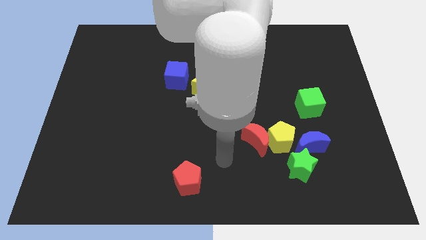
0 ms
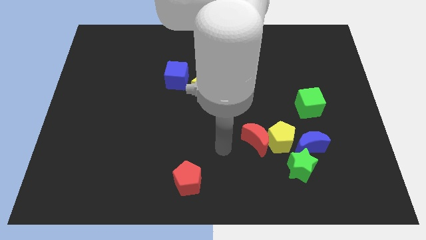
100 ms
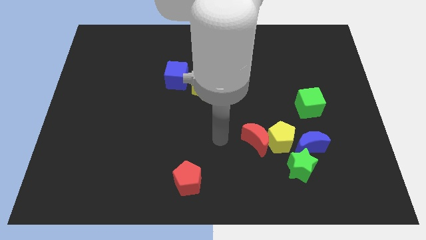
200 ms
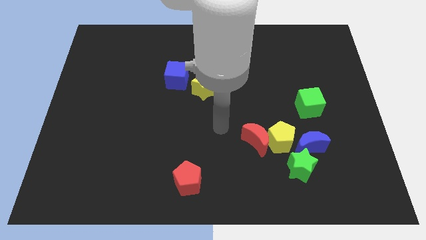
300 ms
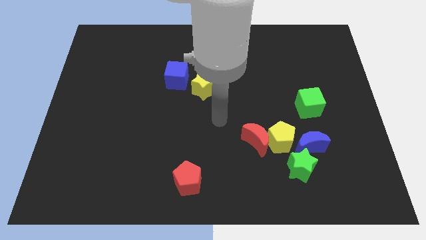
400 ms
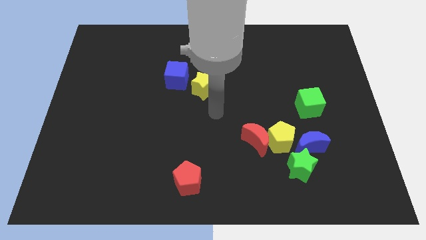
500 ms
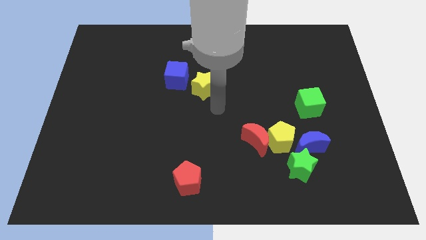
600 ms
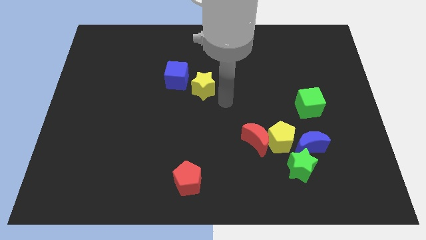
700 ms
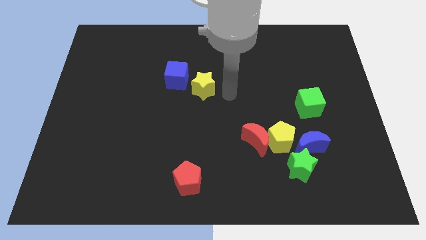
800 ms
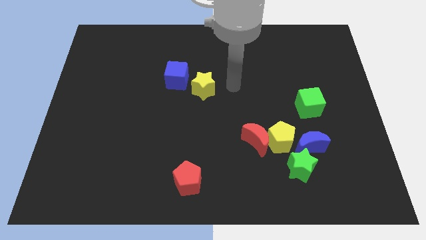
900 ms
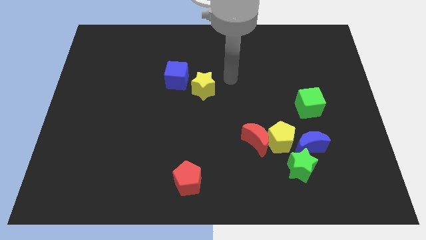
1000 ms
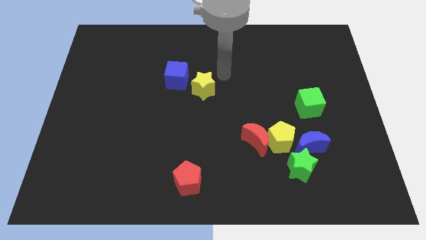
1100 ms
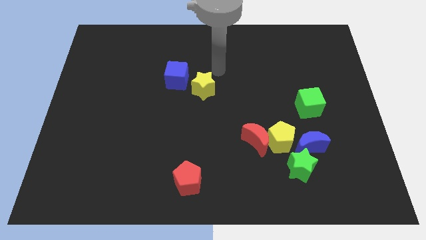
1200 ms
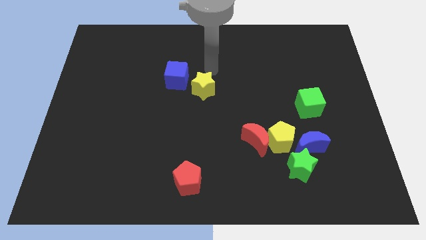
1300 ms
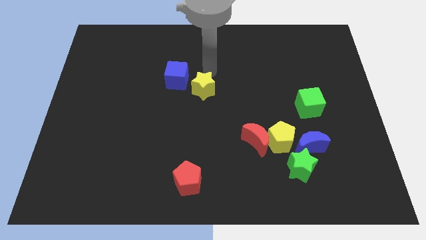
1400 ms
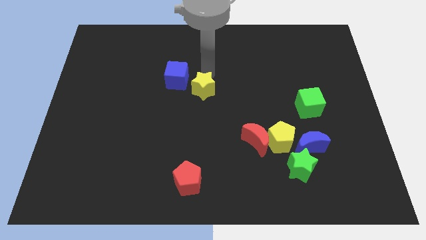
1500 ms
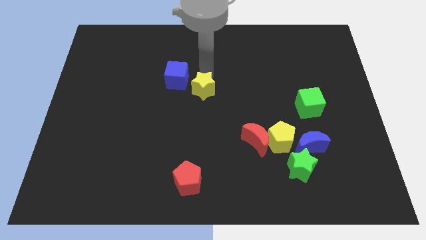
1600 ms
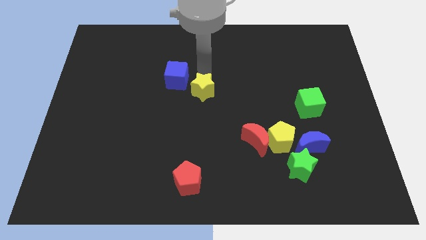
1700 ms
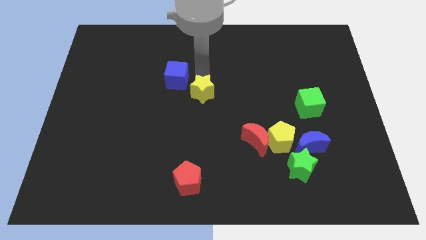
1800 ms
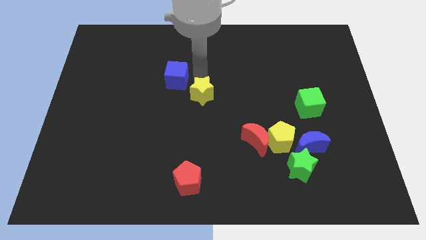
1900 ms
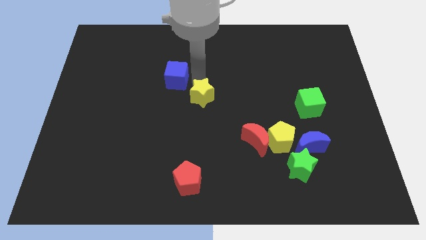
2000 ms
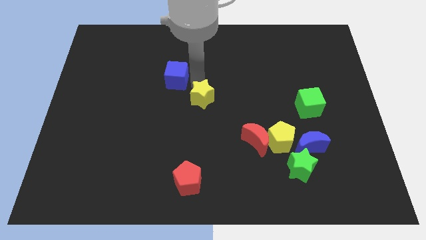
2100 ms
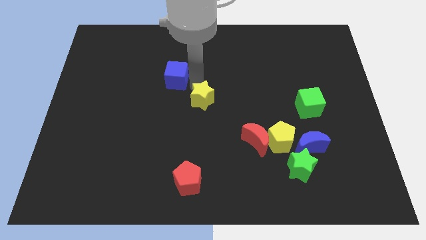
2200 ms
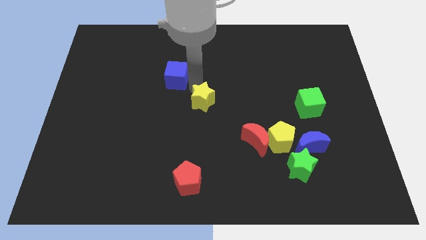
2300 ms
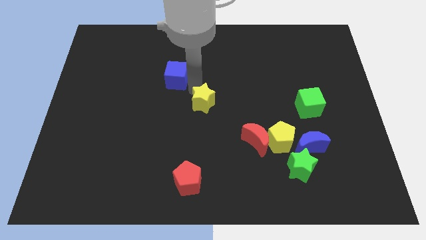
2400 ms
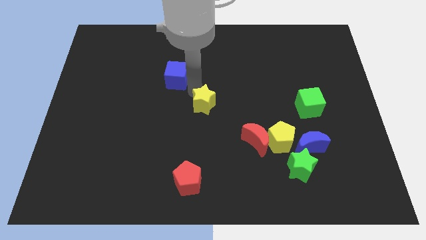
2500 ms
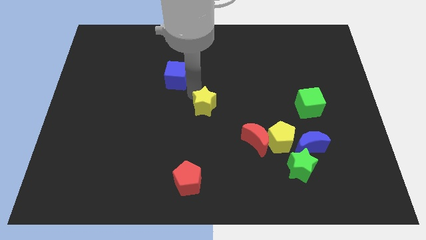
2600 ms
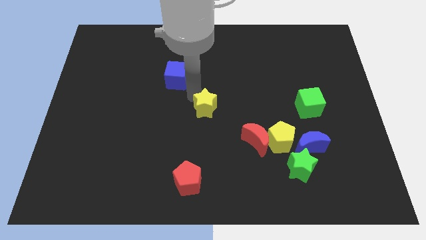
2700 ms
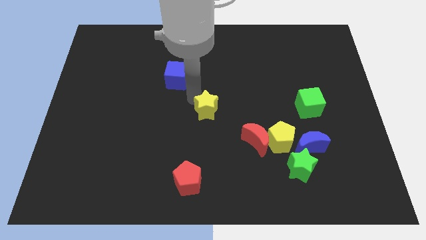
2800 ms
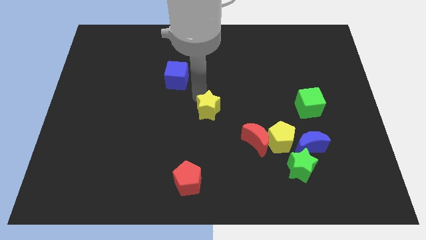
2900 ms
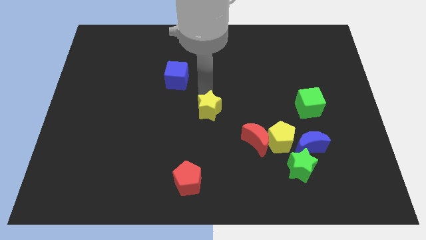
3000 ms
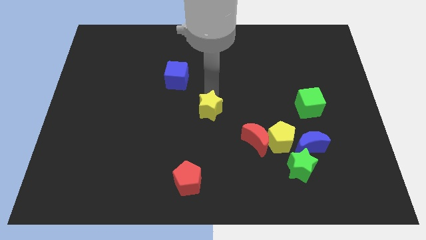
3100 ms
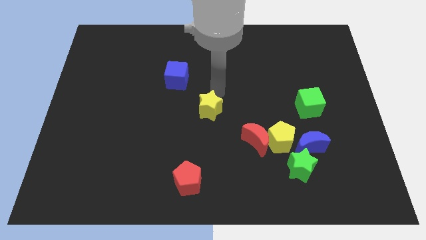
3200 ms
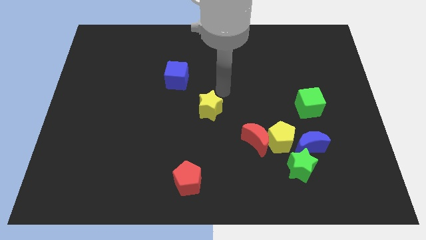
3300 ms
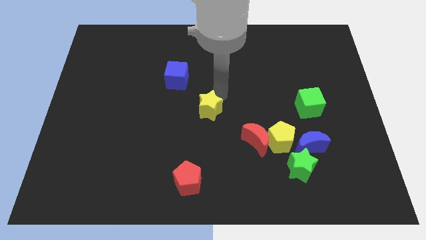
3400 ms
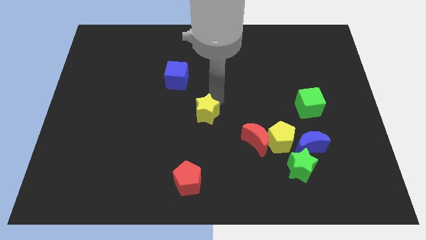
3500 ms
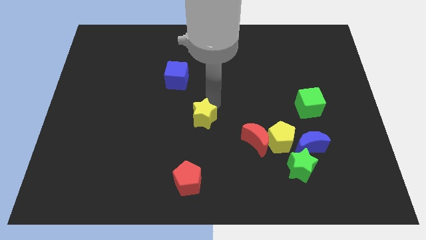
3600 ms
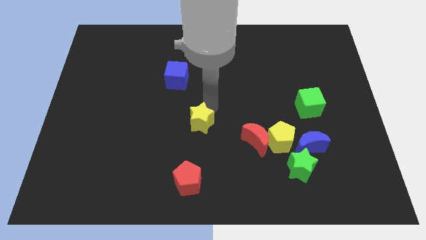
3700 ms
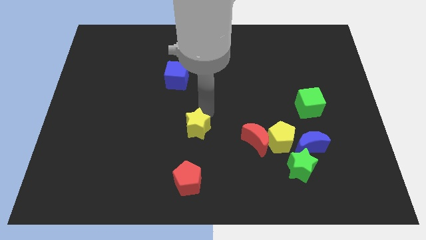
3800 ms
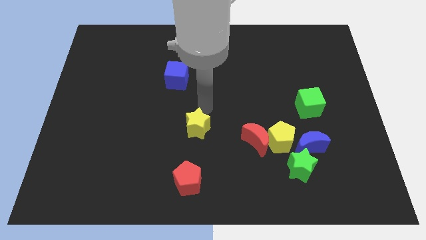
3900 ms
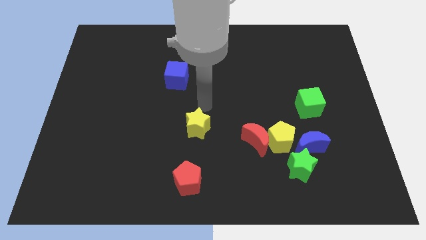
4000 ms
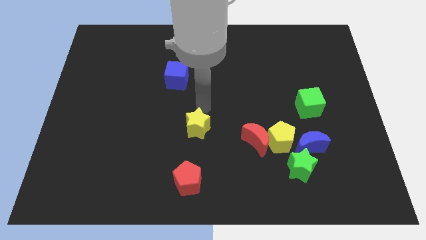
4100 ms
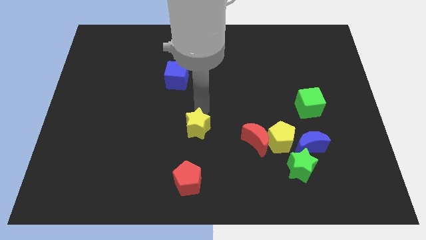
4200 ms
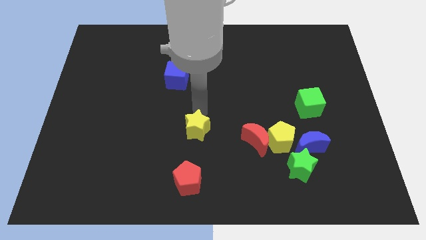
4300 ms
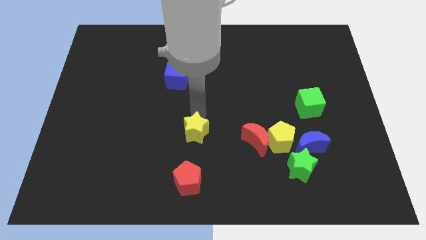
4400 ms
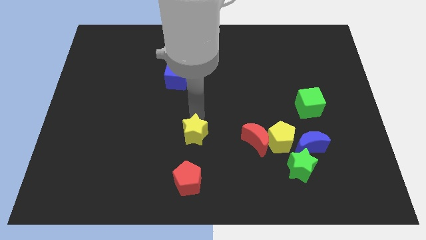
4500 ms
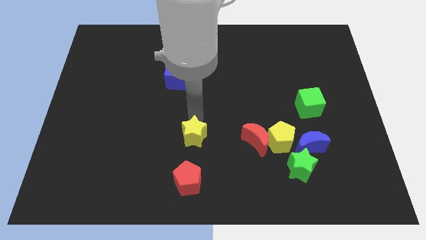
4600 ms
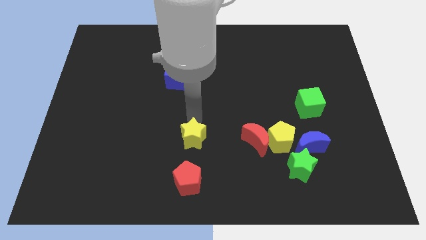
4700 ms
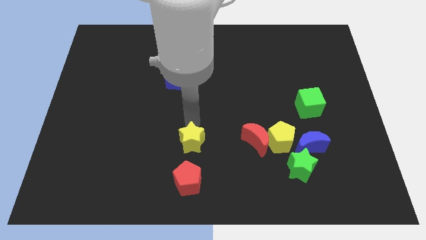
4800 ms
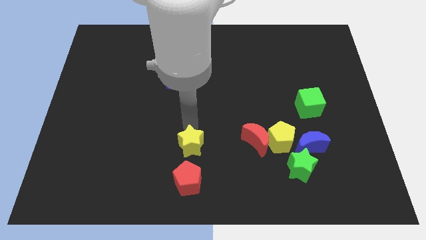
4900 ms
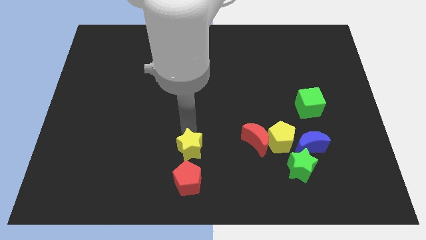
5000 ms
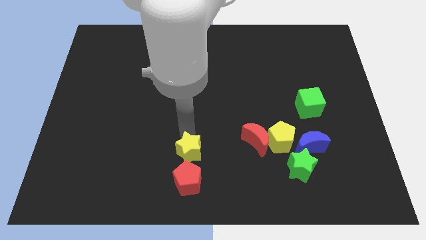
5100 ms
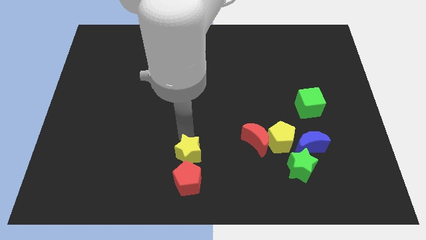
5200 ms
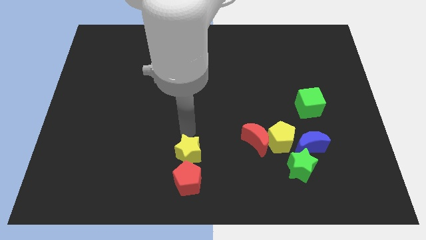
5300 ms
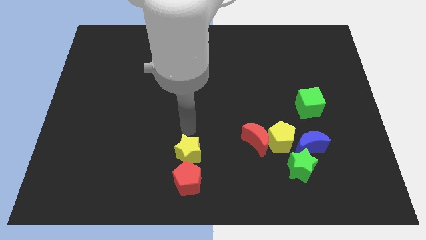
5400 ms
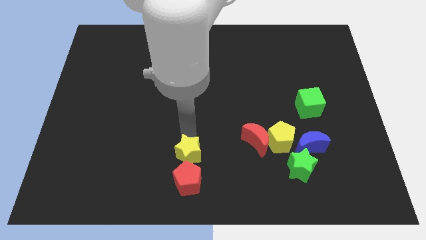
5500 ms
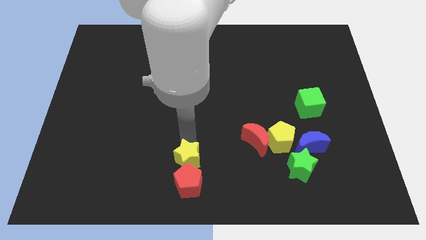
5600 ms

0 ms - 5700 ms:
slide the yellow star close to the red pentagon

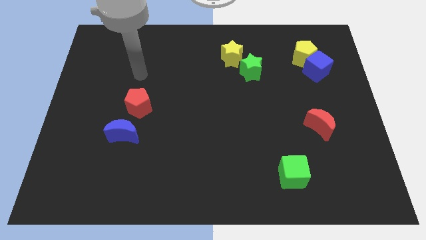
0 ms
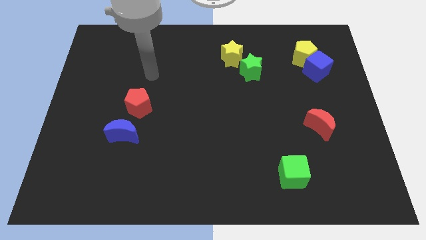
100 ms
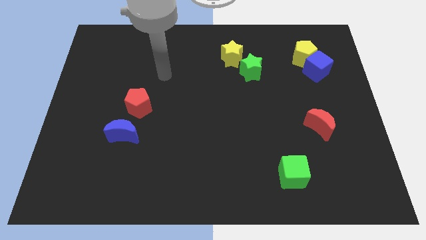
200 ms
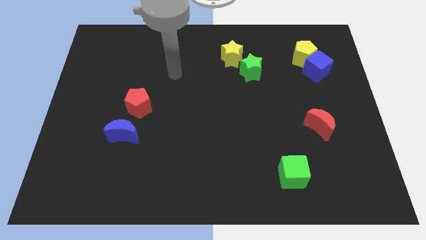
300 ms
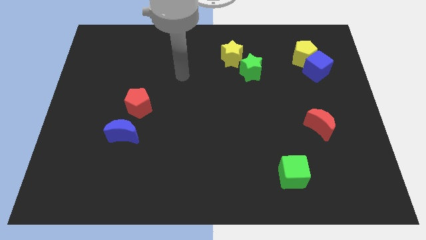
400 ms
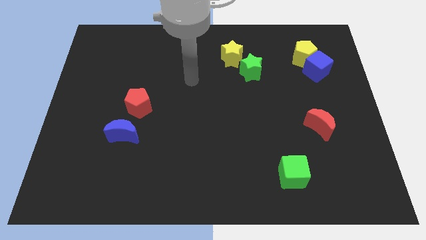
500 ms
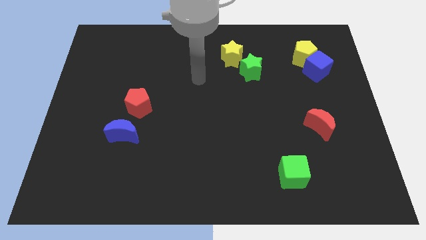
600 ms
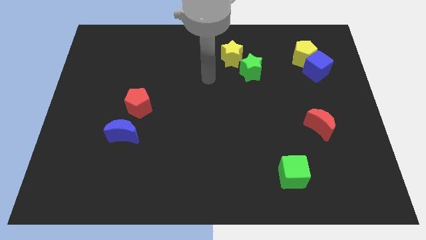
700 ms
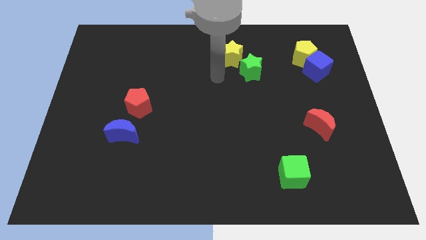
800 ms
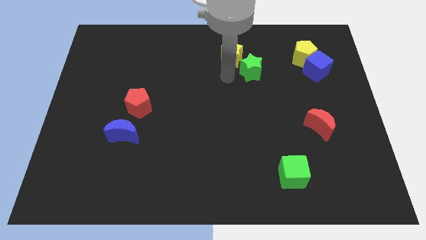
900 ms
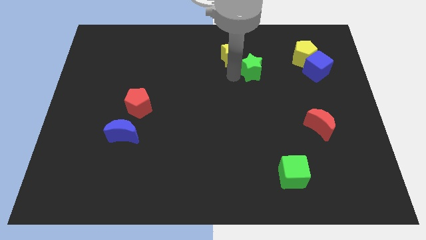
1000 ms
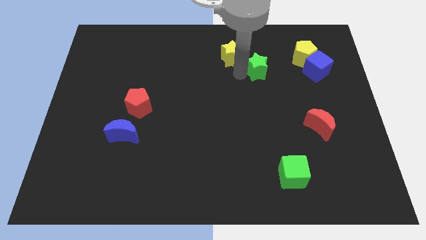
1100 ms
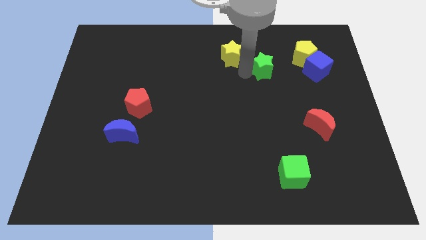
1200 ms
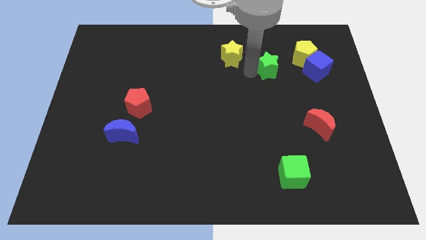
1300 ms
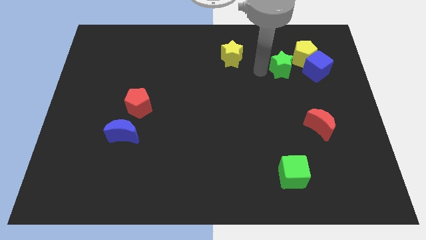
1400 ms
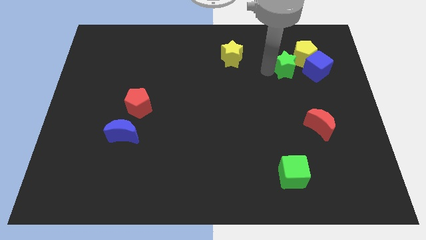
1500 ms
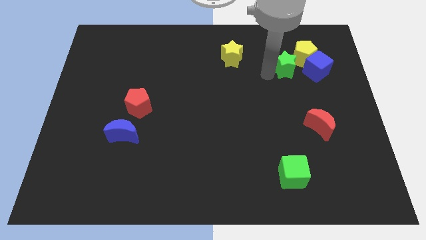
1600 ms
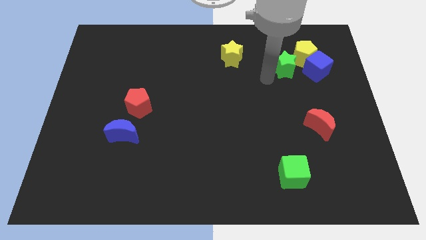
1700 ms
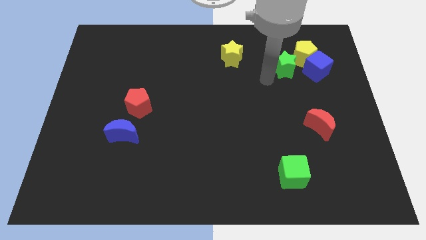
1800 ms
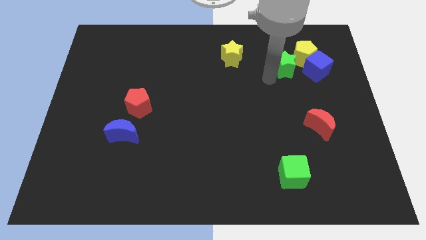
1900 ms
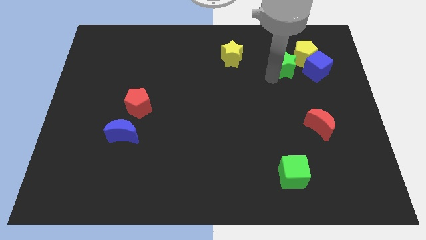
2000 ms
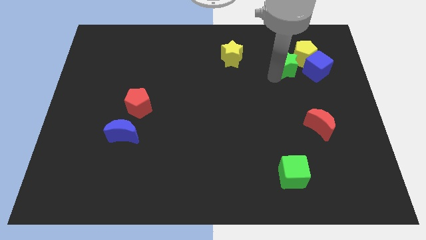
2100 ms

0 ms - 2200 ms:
move the green star next to the yellow pentagon
